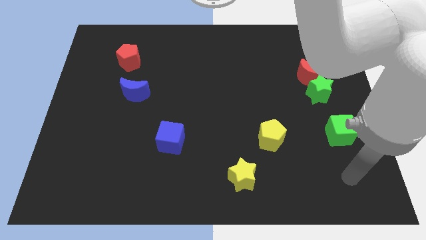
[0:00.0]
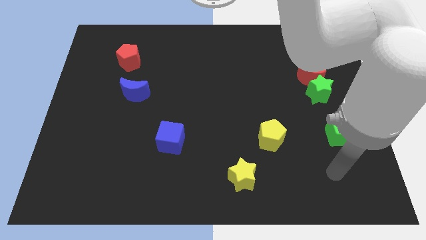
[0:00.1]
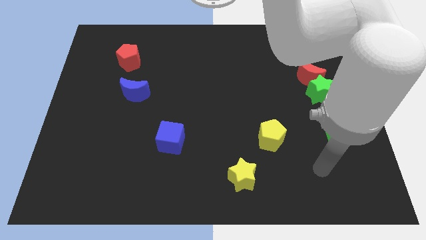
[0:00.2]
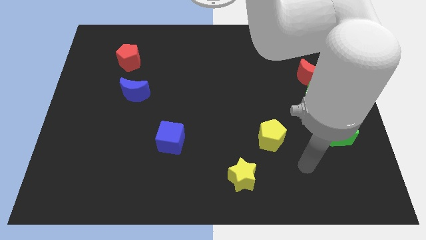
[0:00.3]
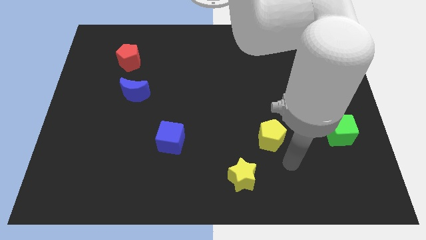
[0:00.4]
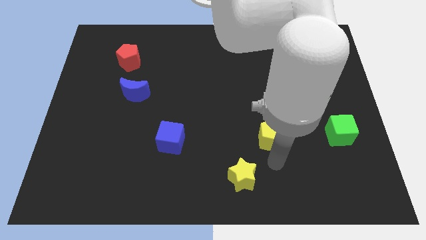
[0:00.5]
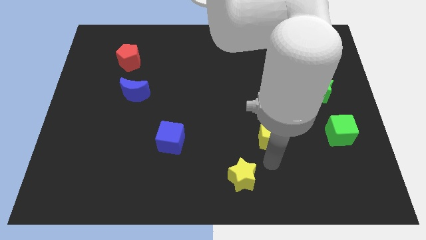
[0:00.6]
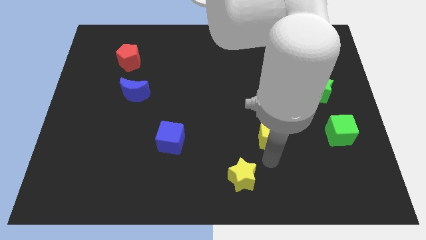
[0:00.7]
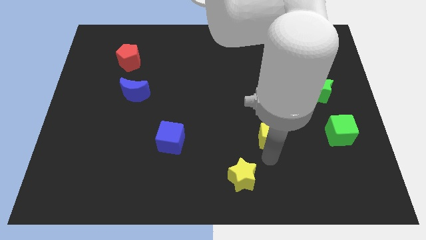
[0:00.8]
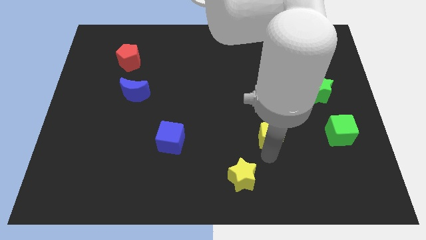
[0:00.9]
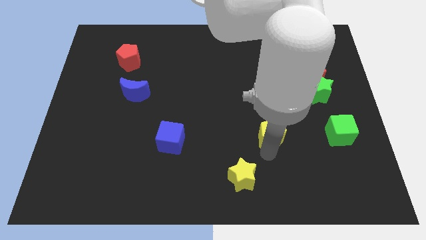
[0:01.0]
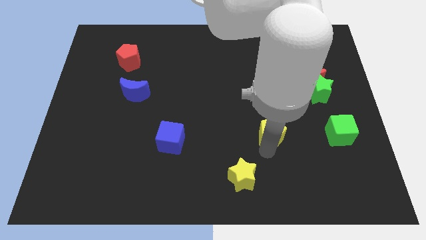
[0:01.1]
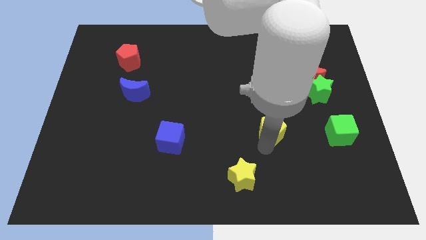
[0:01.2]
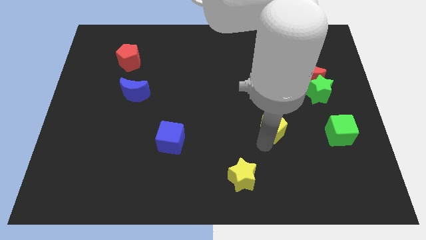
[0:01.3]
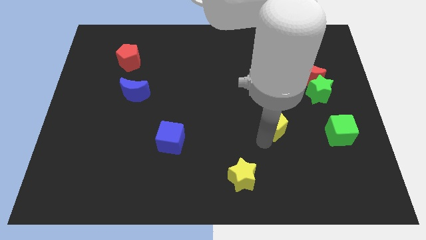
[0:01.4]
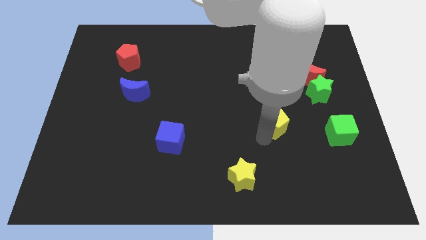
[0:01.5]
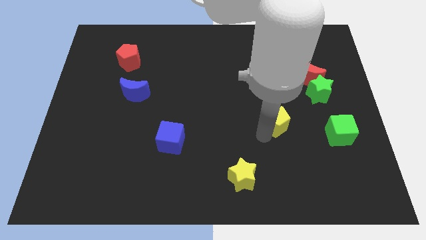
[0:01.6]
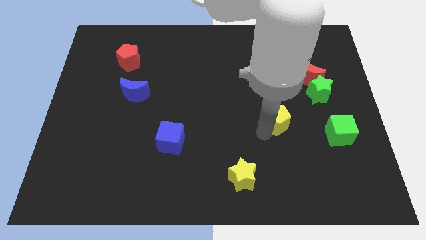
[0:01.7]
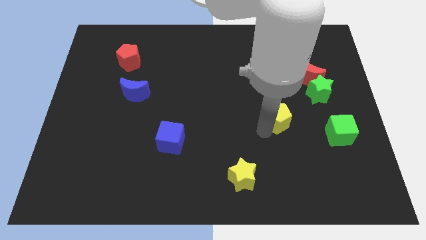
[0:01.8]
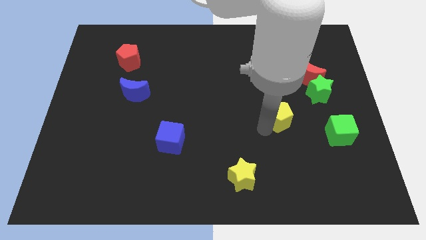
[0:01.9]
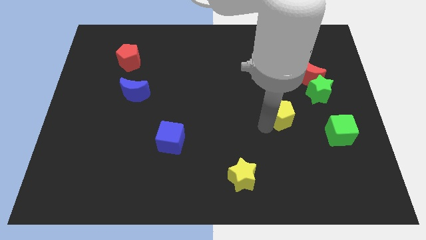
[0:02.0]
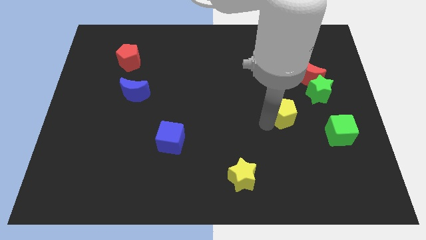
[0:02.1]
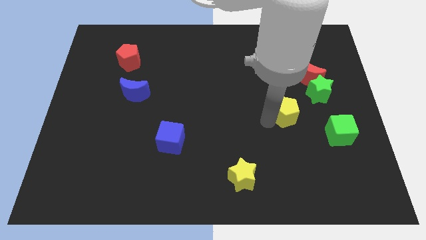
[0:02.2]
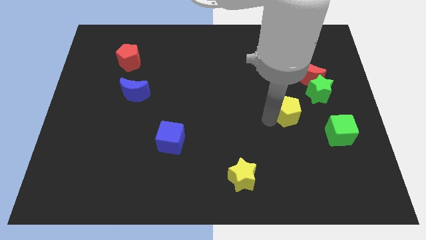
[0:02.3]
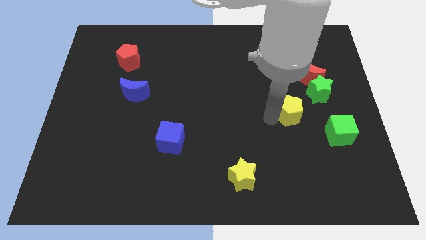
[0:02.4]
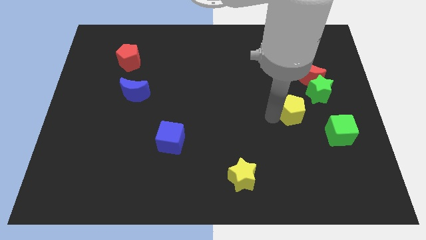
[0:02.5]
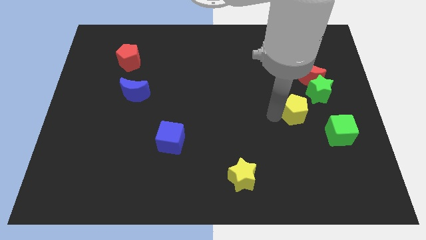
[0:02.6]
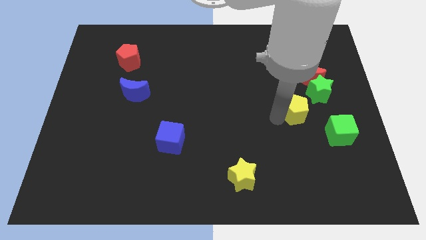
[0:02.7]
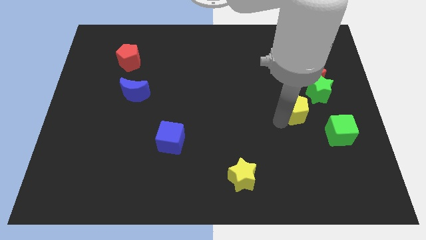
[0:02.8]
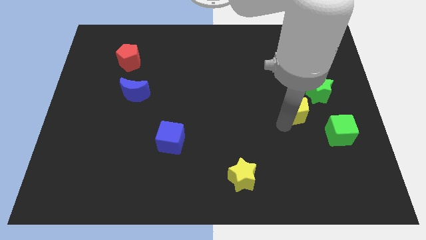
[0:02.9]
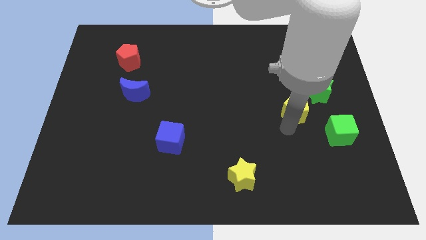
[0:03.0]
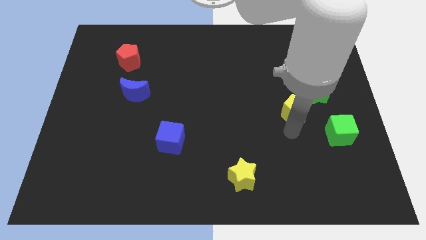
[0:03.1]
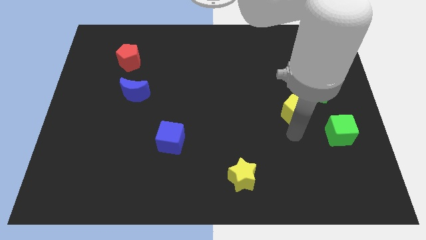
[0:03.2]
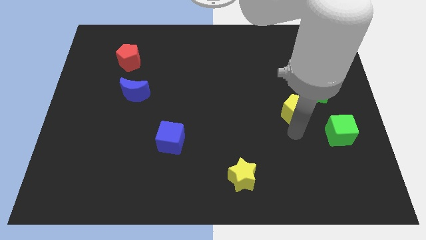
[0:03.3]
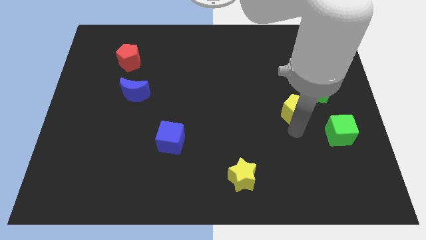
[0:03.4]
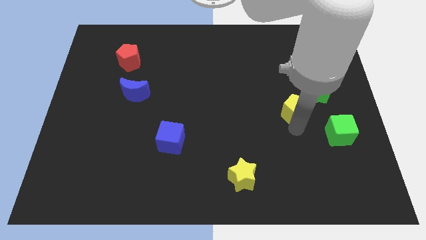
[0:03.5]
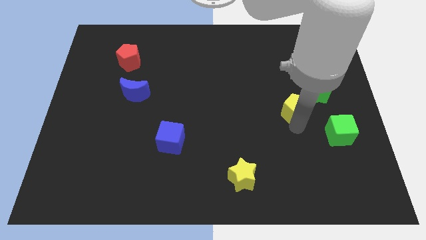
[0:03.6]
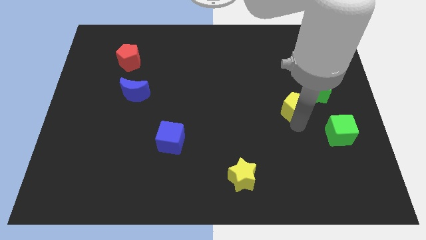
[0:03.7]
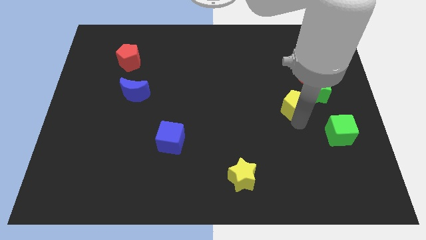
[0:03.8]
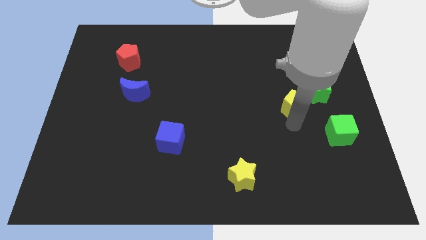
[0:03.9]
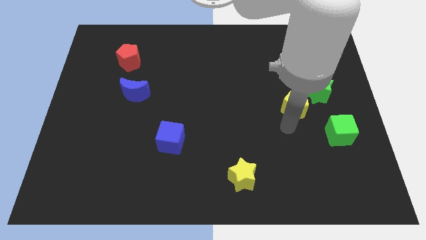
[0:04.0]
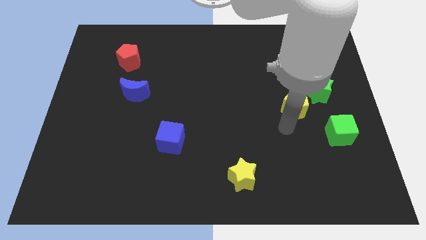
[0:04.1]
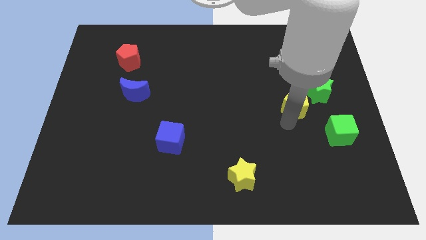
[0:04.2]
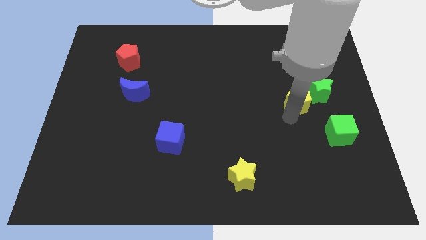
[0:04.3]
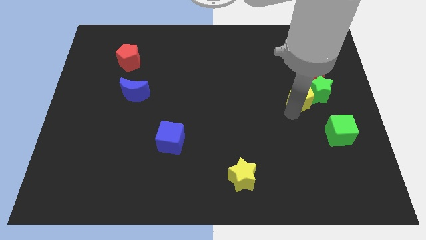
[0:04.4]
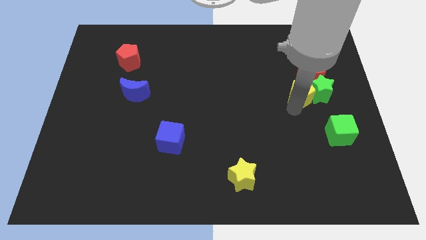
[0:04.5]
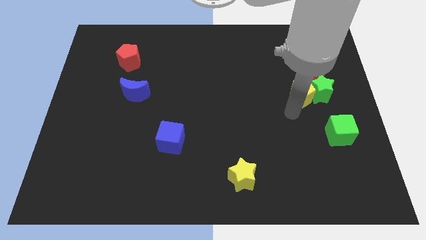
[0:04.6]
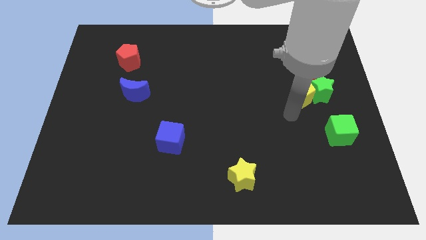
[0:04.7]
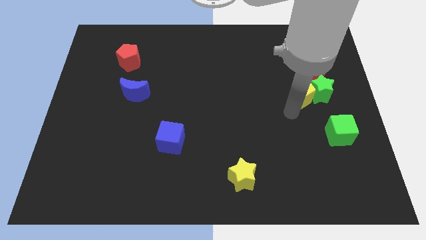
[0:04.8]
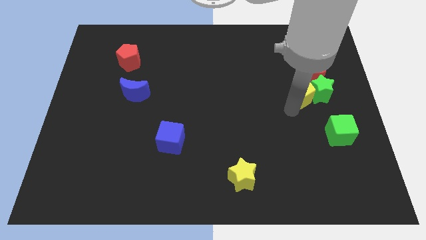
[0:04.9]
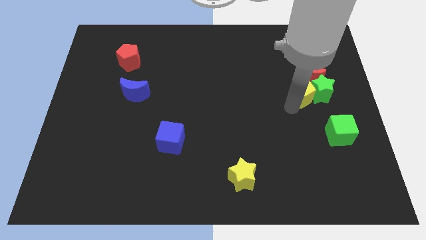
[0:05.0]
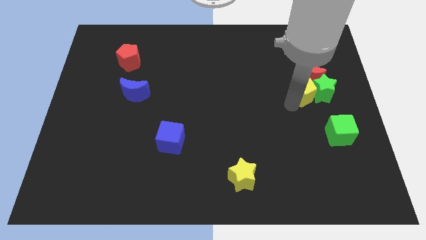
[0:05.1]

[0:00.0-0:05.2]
push the yellow pentagon to the red moon

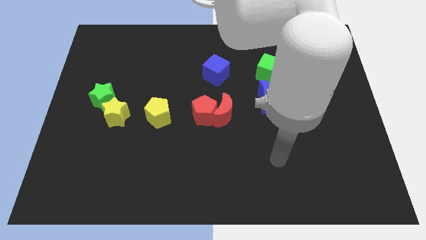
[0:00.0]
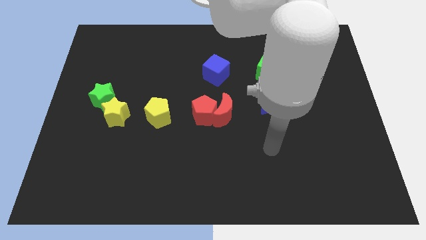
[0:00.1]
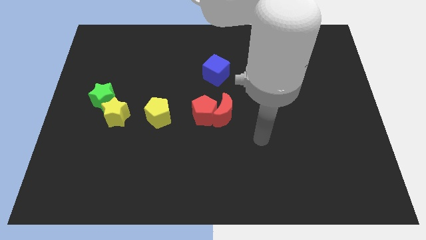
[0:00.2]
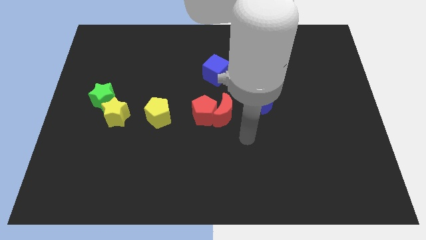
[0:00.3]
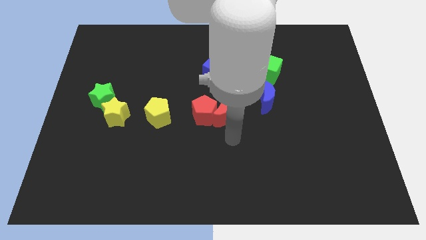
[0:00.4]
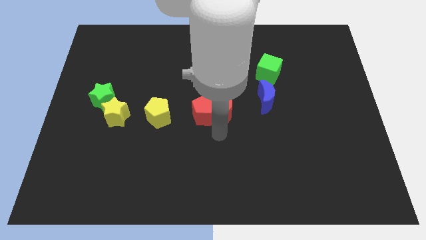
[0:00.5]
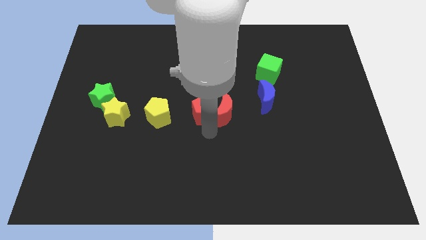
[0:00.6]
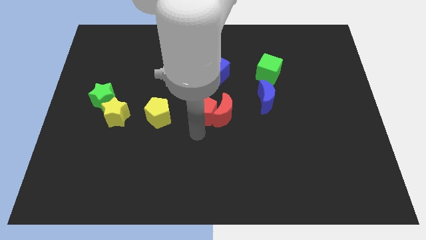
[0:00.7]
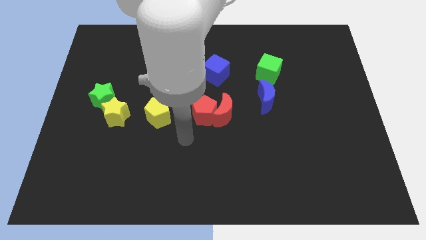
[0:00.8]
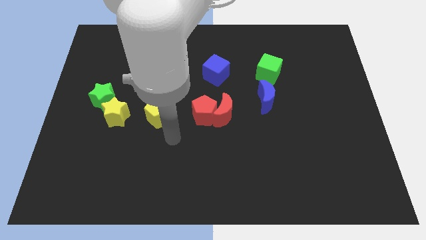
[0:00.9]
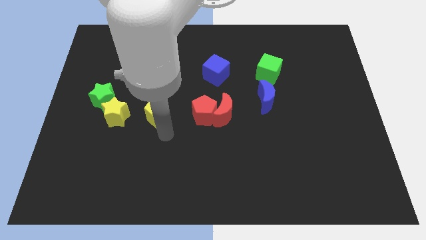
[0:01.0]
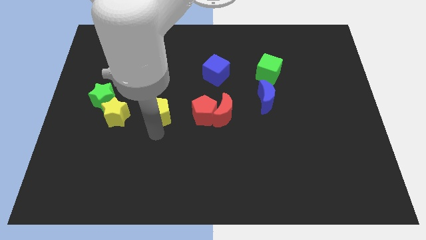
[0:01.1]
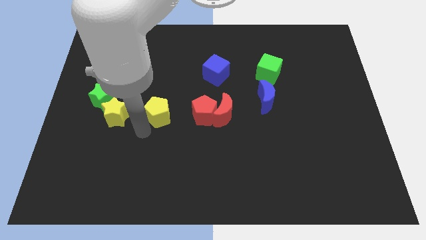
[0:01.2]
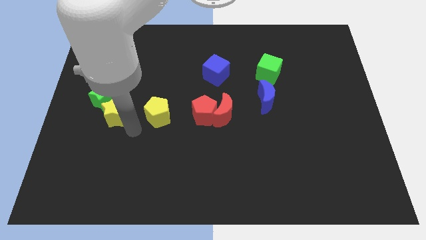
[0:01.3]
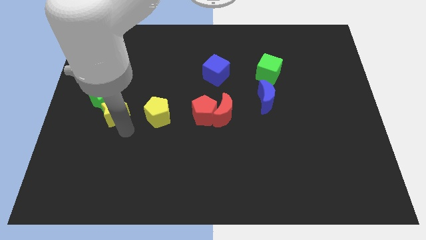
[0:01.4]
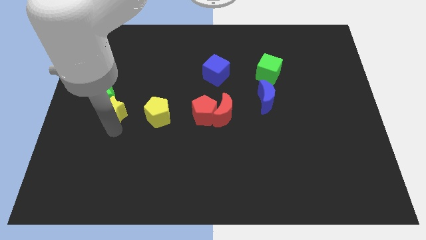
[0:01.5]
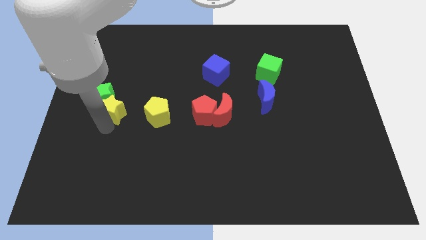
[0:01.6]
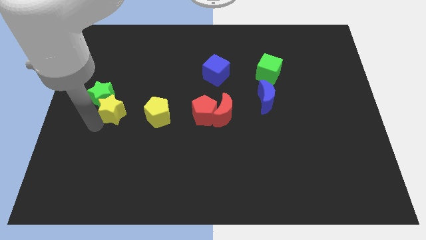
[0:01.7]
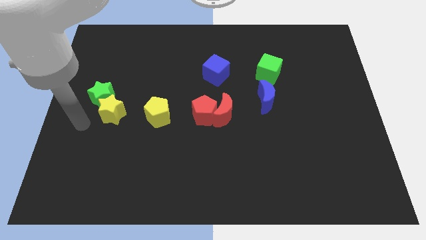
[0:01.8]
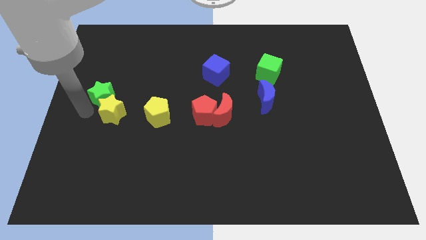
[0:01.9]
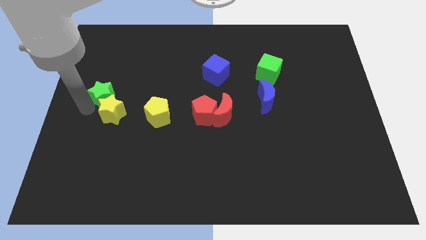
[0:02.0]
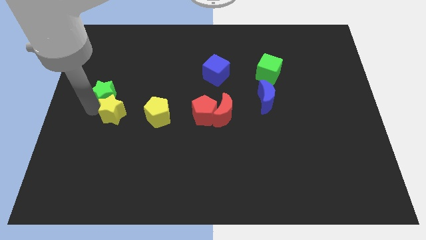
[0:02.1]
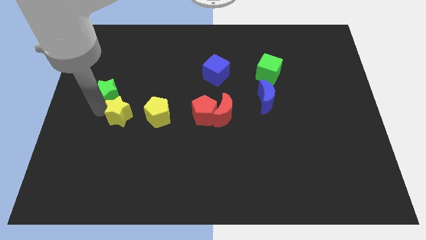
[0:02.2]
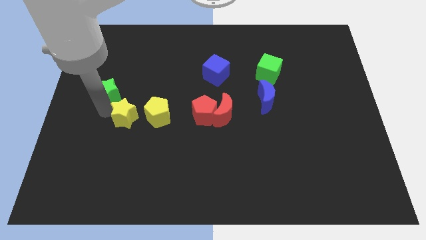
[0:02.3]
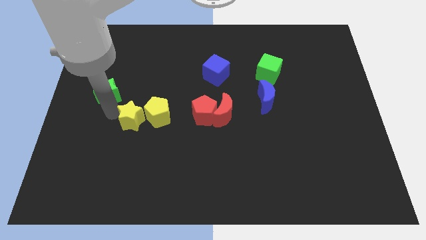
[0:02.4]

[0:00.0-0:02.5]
slide the yellow star next to the yellow pentagon
